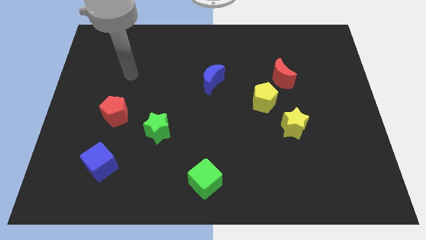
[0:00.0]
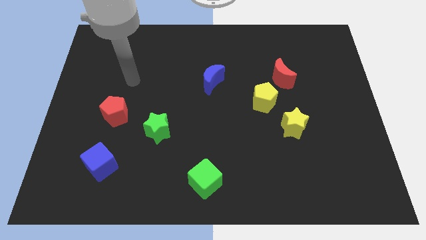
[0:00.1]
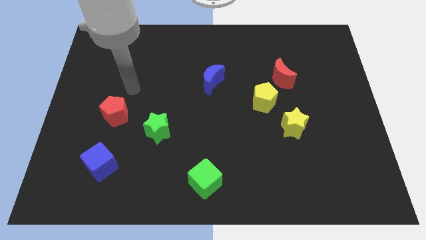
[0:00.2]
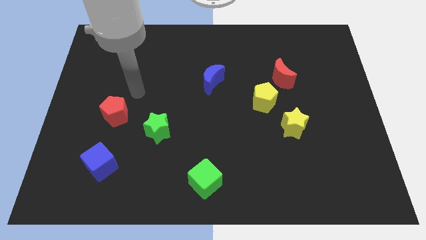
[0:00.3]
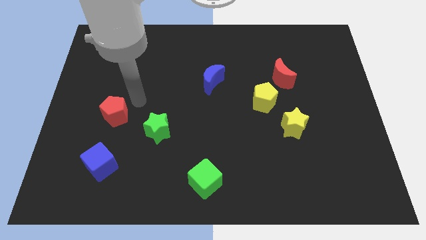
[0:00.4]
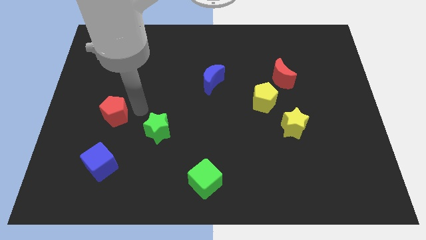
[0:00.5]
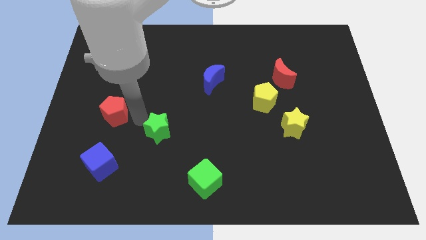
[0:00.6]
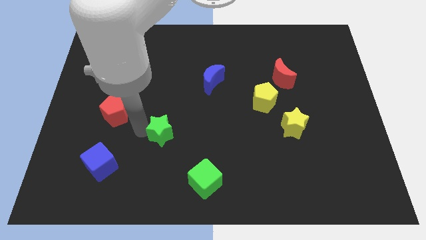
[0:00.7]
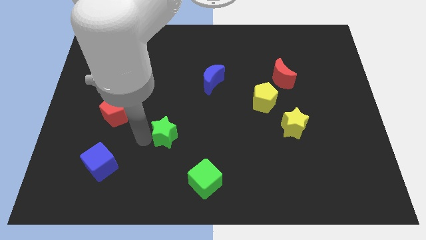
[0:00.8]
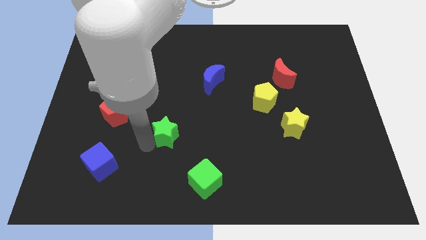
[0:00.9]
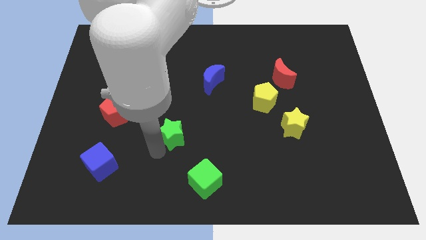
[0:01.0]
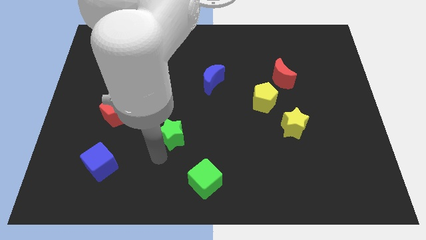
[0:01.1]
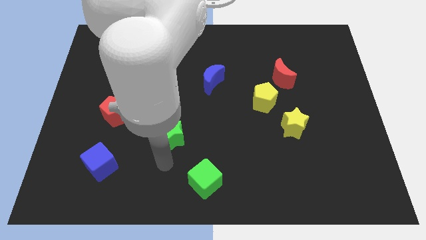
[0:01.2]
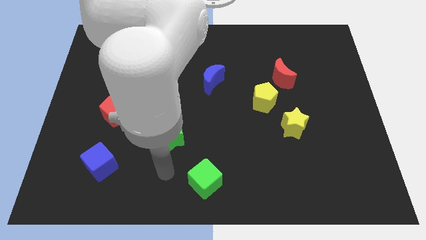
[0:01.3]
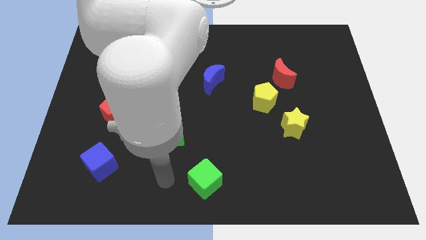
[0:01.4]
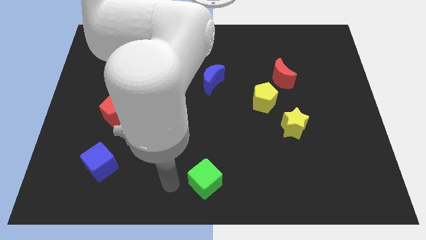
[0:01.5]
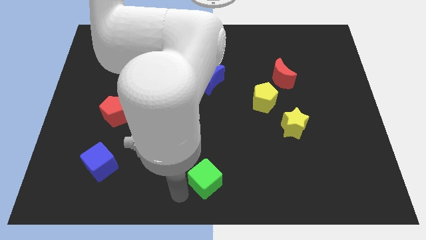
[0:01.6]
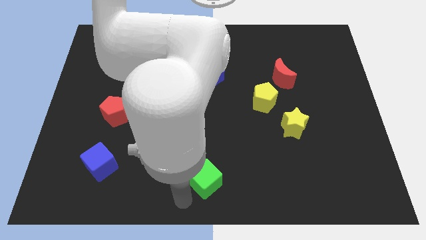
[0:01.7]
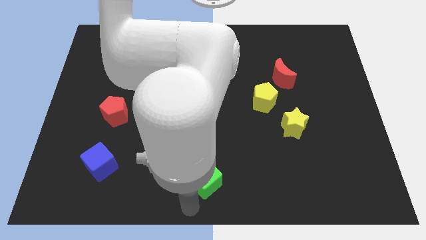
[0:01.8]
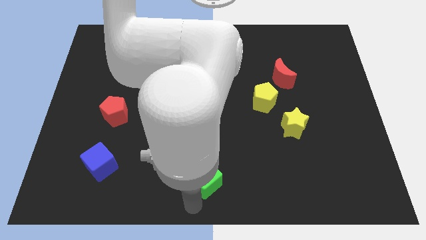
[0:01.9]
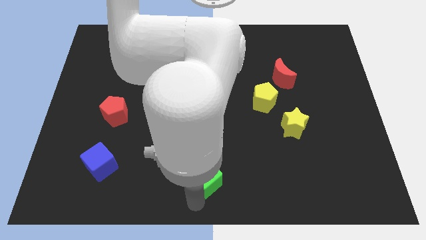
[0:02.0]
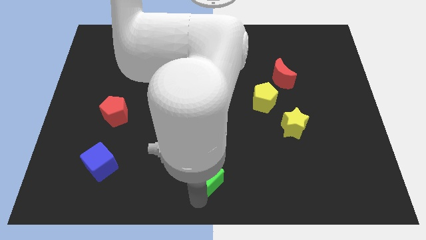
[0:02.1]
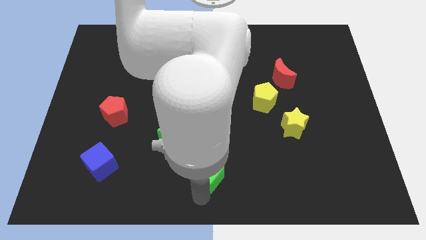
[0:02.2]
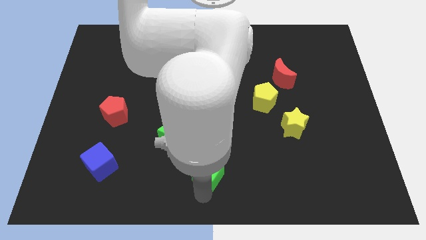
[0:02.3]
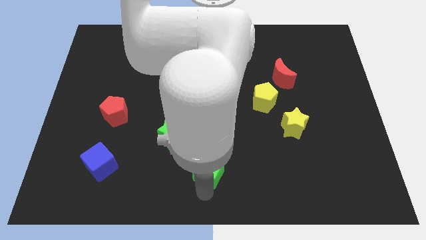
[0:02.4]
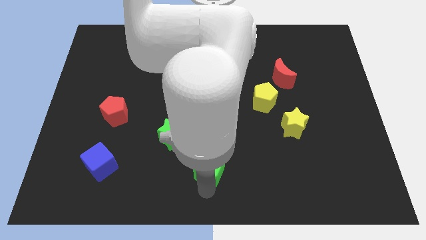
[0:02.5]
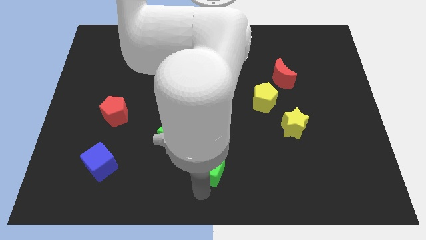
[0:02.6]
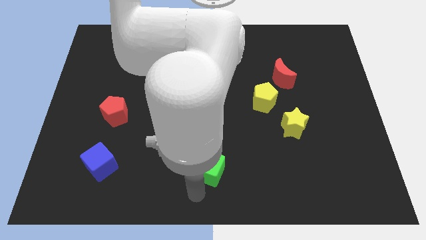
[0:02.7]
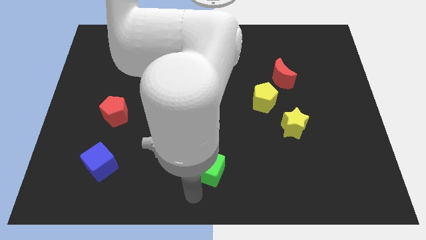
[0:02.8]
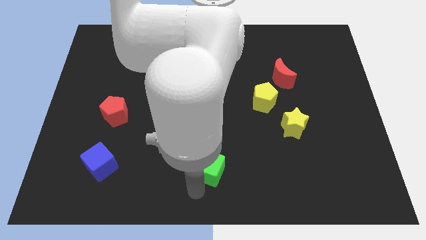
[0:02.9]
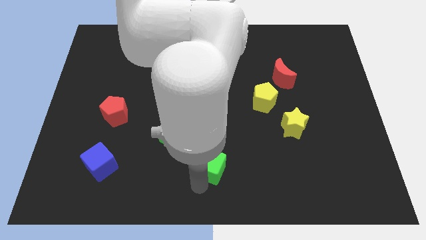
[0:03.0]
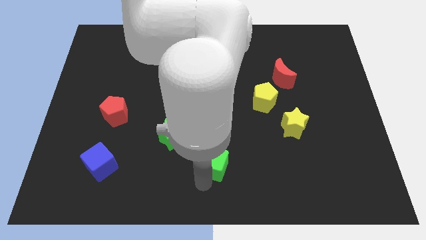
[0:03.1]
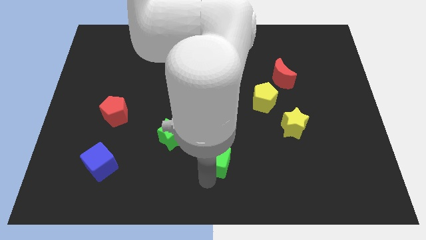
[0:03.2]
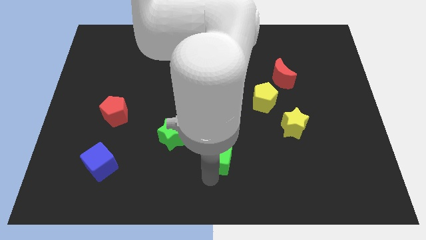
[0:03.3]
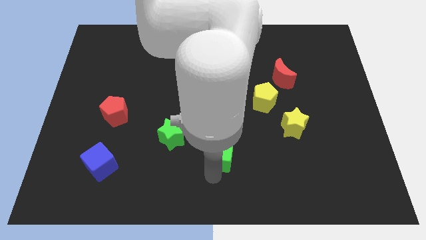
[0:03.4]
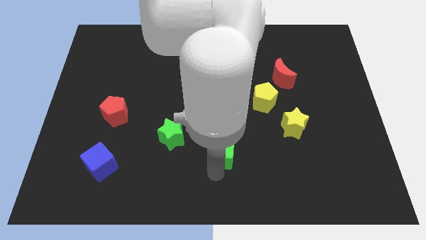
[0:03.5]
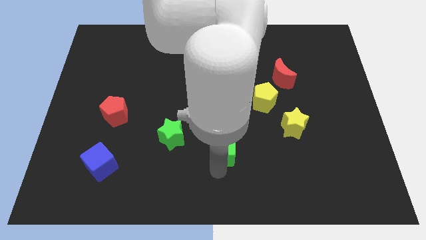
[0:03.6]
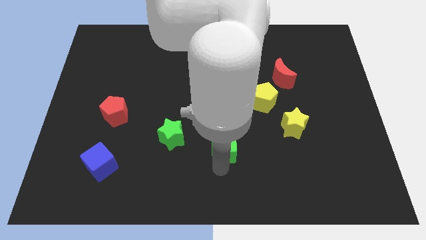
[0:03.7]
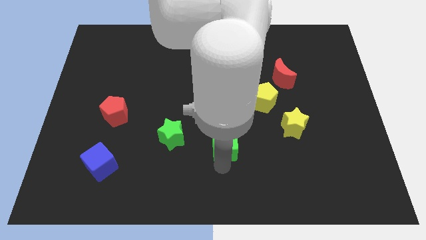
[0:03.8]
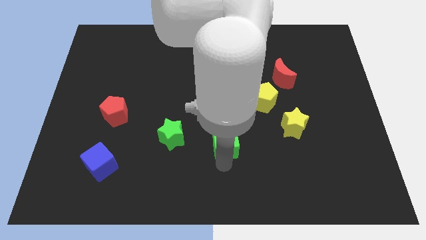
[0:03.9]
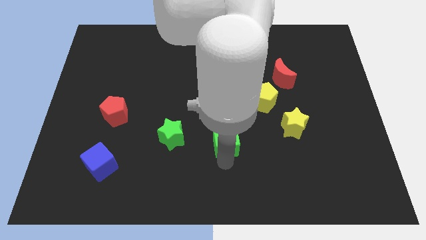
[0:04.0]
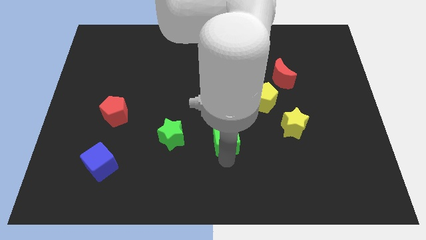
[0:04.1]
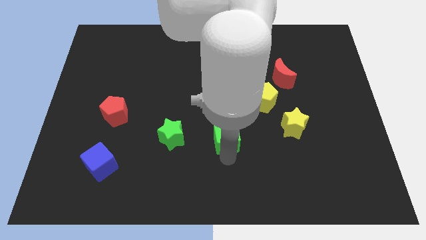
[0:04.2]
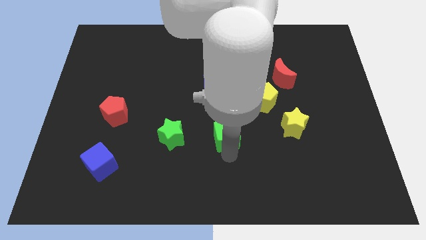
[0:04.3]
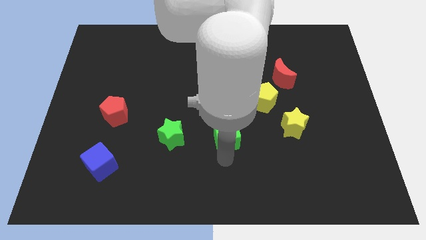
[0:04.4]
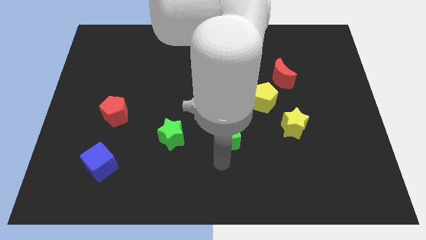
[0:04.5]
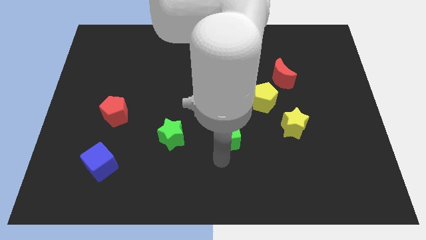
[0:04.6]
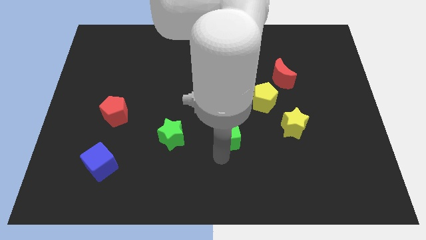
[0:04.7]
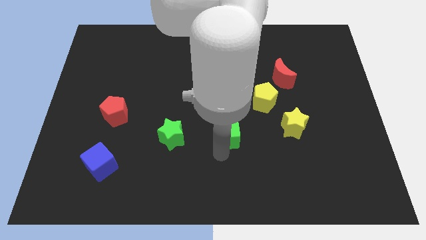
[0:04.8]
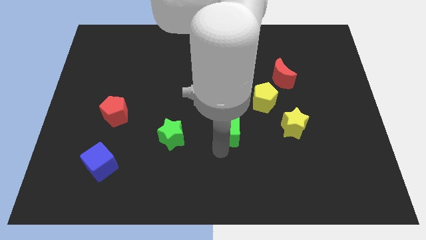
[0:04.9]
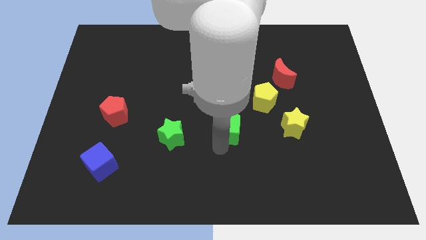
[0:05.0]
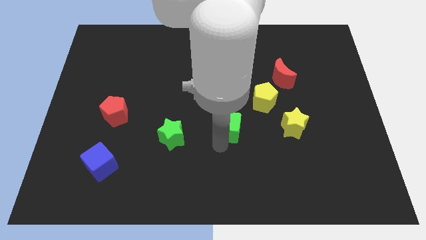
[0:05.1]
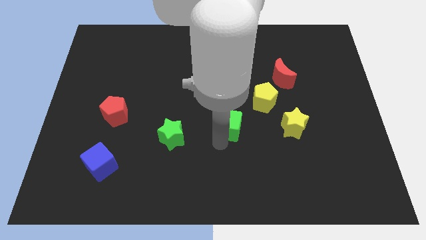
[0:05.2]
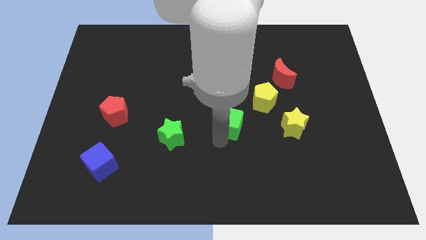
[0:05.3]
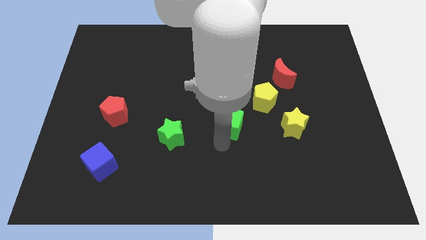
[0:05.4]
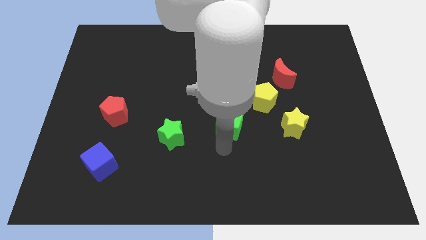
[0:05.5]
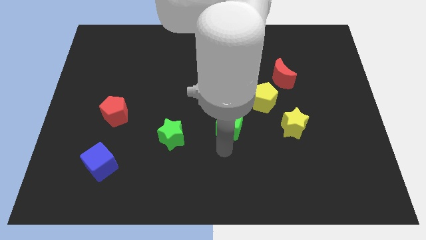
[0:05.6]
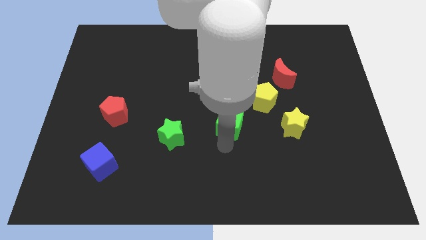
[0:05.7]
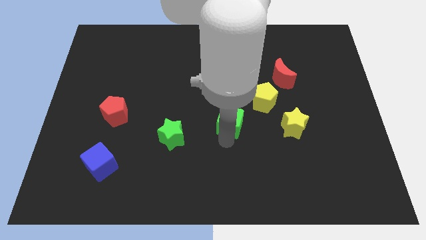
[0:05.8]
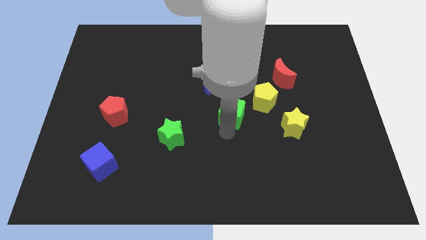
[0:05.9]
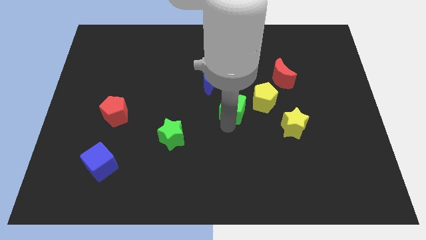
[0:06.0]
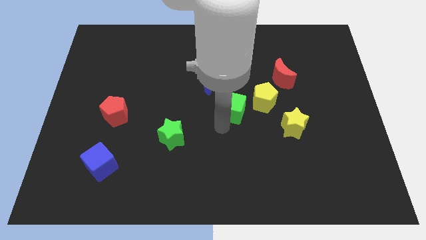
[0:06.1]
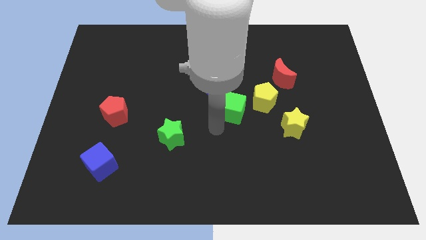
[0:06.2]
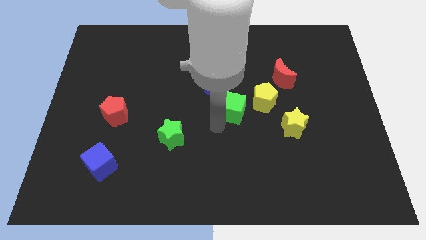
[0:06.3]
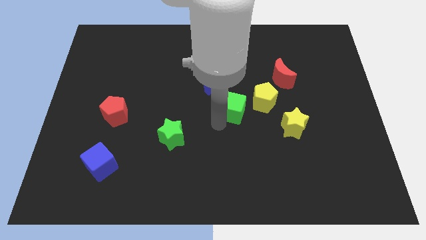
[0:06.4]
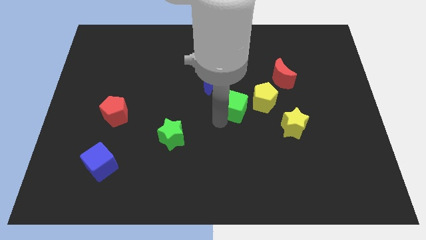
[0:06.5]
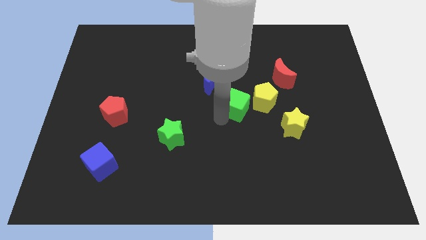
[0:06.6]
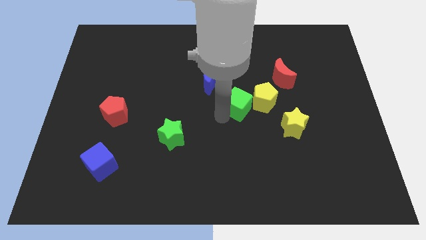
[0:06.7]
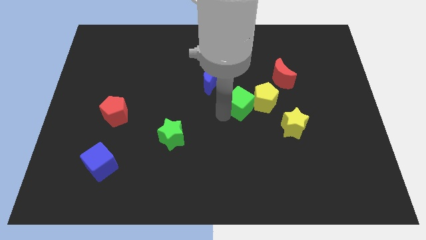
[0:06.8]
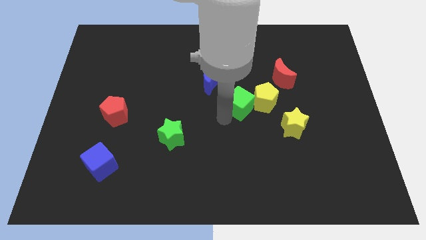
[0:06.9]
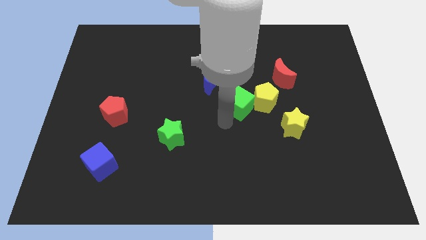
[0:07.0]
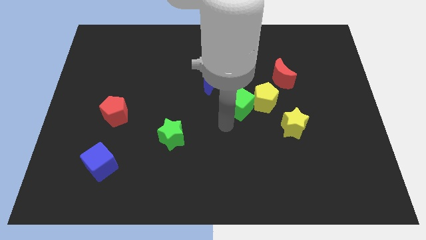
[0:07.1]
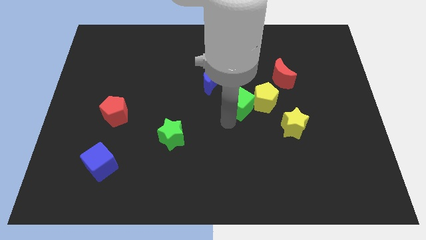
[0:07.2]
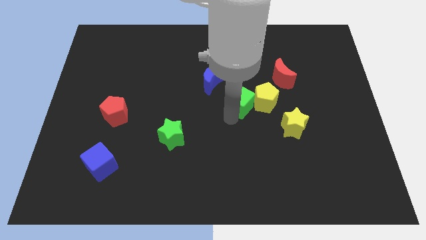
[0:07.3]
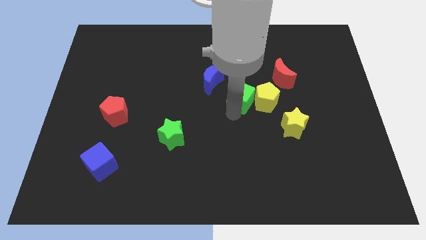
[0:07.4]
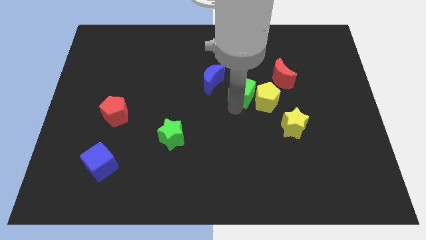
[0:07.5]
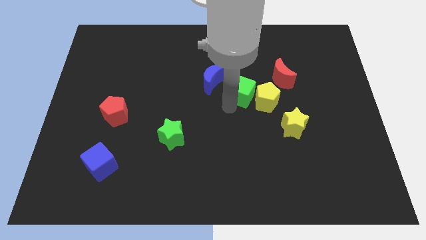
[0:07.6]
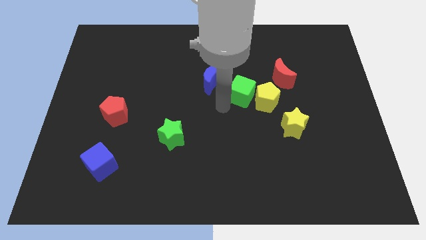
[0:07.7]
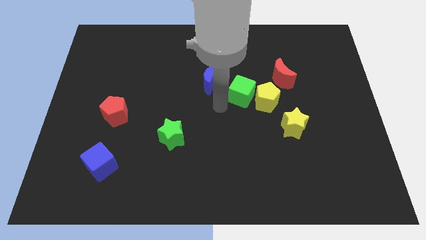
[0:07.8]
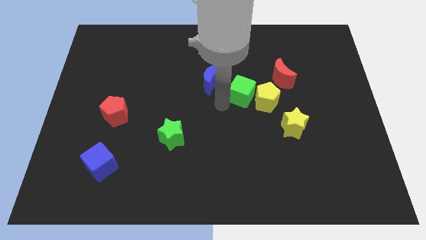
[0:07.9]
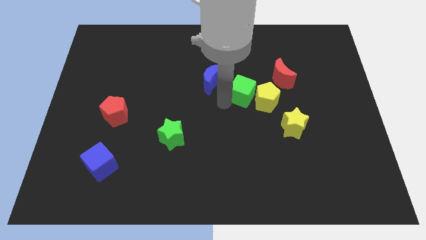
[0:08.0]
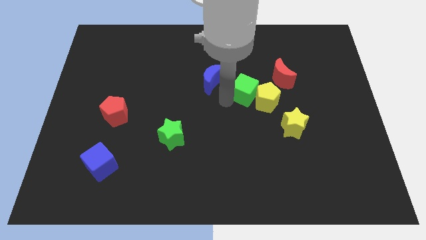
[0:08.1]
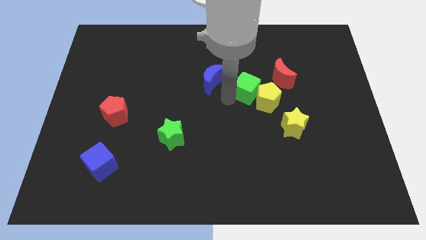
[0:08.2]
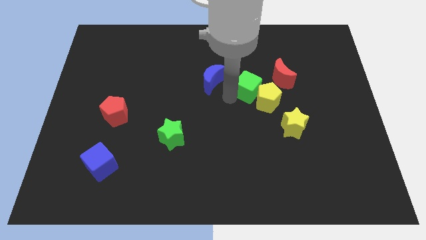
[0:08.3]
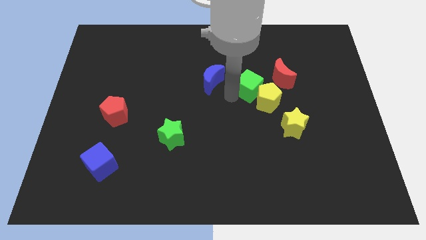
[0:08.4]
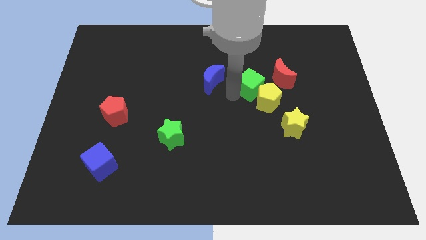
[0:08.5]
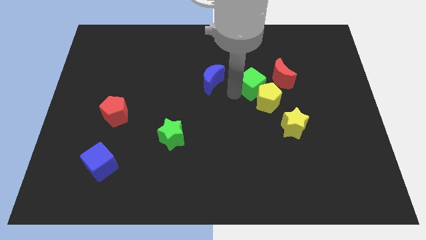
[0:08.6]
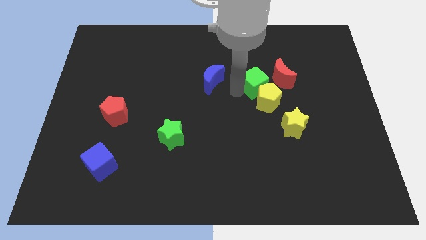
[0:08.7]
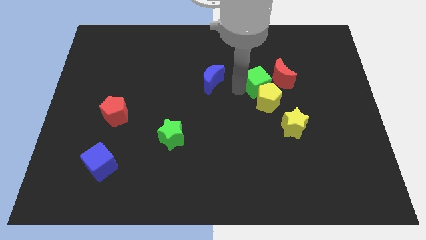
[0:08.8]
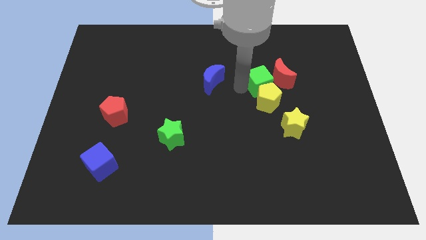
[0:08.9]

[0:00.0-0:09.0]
slide the green cube to the red moon
